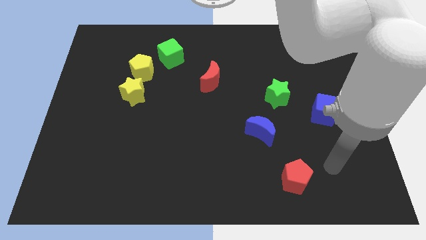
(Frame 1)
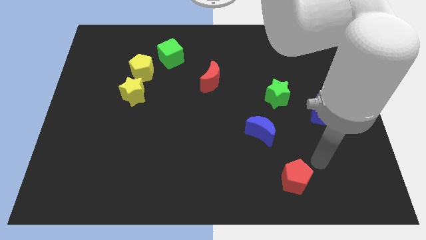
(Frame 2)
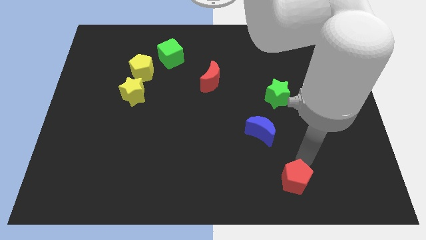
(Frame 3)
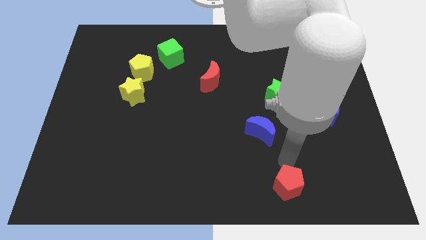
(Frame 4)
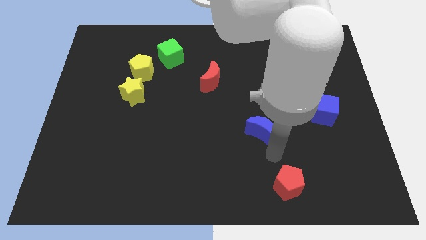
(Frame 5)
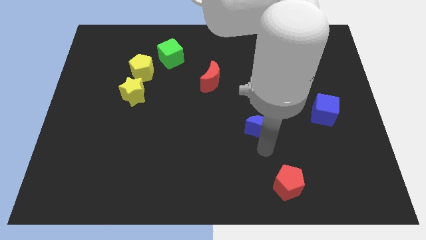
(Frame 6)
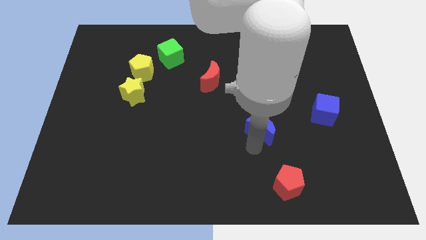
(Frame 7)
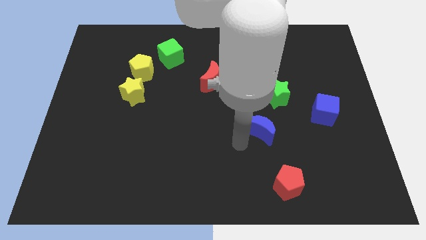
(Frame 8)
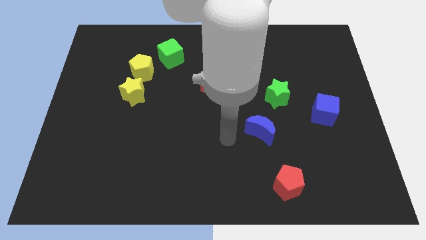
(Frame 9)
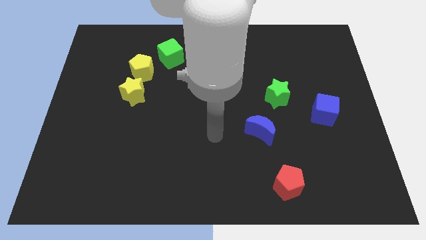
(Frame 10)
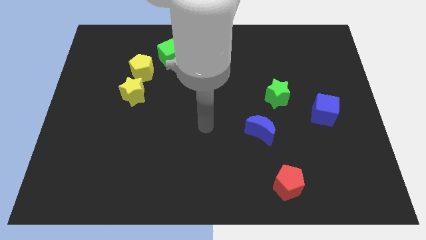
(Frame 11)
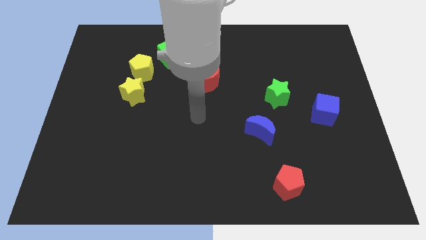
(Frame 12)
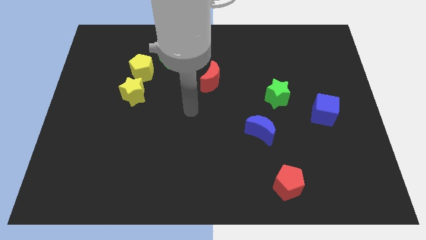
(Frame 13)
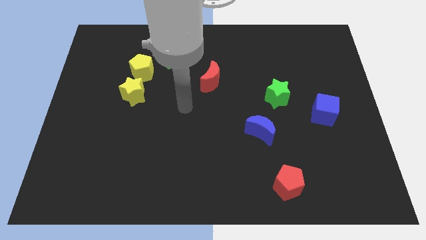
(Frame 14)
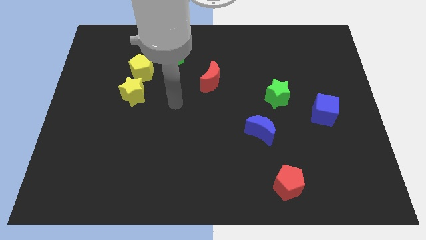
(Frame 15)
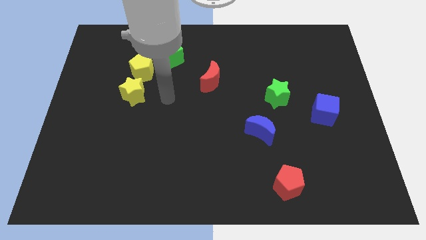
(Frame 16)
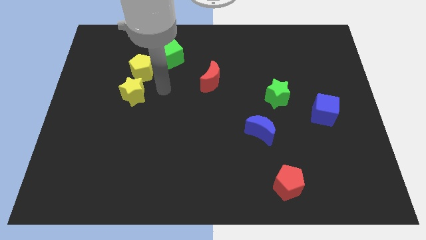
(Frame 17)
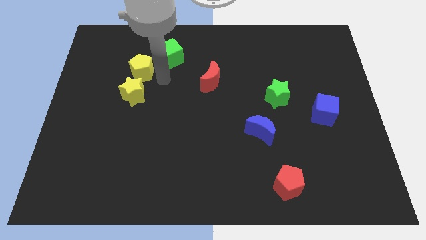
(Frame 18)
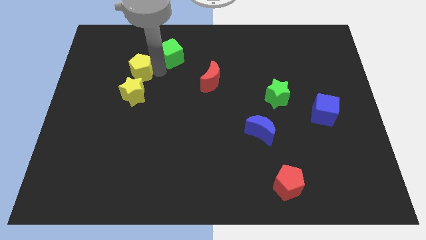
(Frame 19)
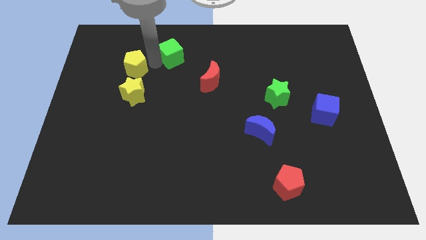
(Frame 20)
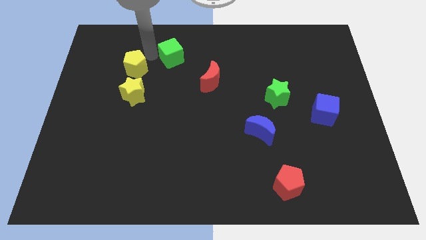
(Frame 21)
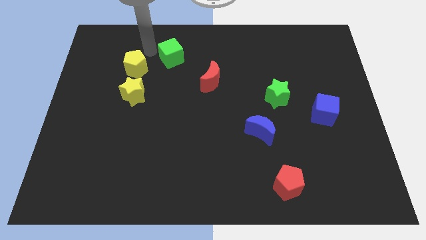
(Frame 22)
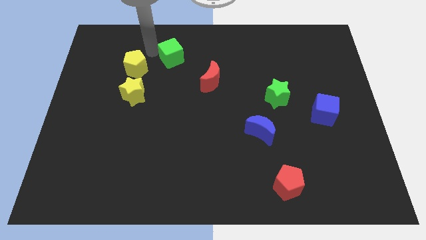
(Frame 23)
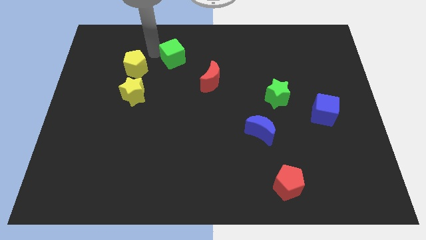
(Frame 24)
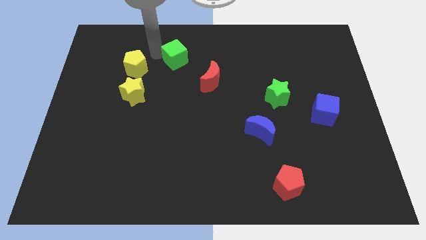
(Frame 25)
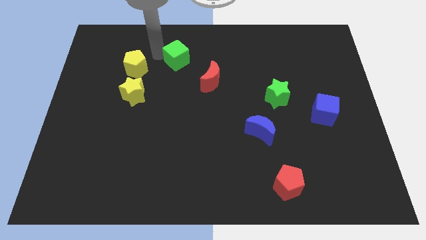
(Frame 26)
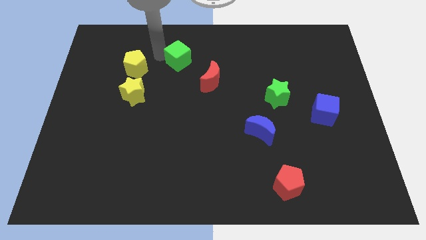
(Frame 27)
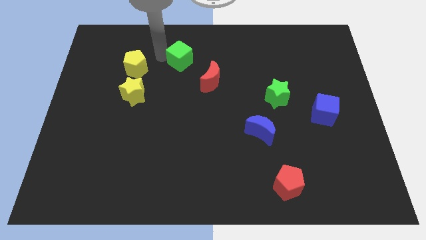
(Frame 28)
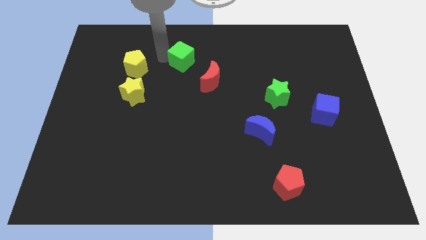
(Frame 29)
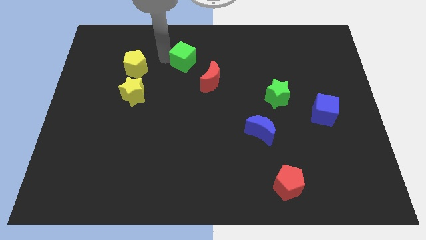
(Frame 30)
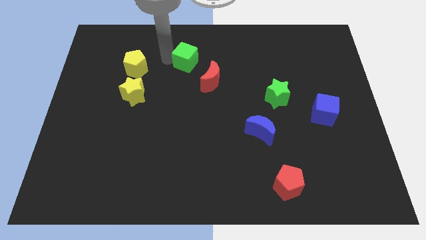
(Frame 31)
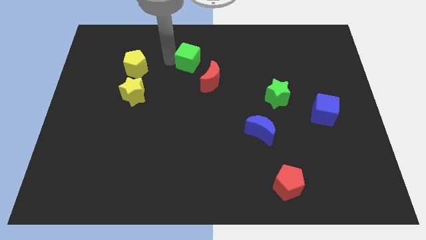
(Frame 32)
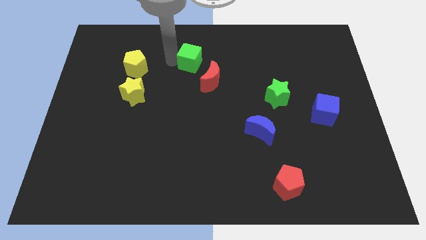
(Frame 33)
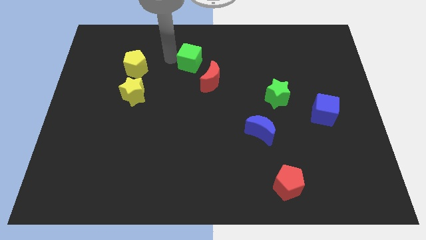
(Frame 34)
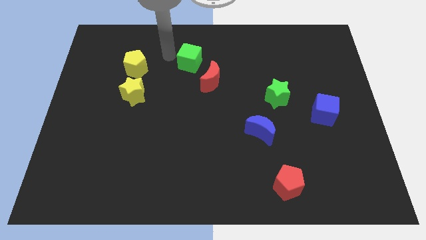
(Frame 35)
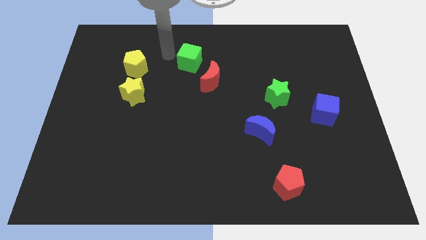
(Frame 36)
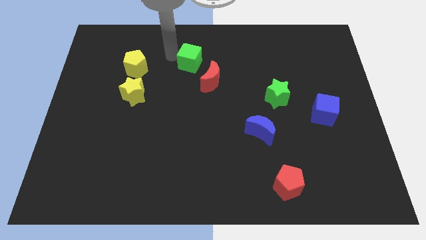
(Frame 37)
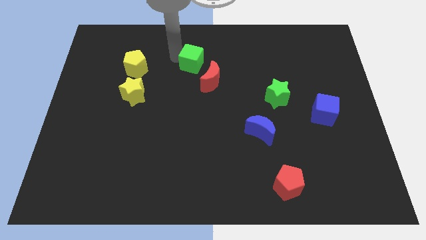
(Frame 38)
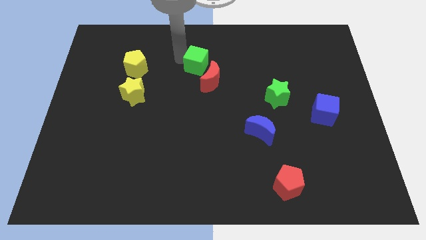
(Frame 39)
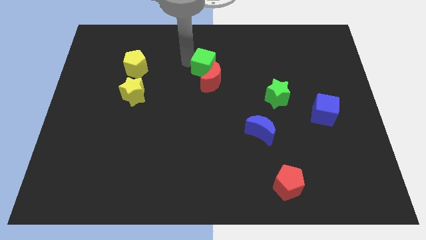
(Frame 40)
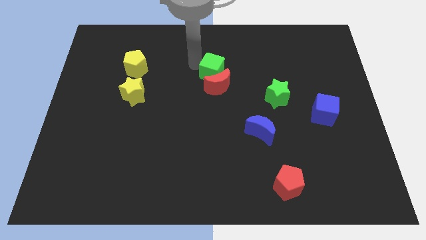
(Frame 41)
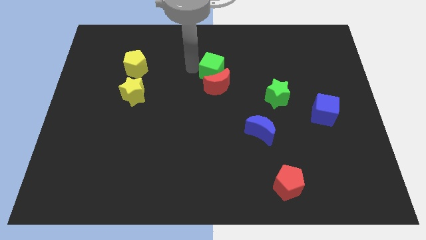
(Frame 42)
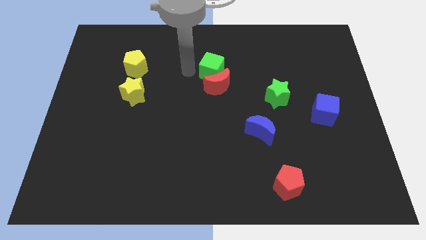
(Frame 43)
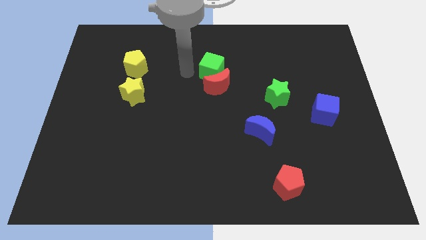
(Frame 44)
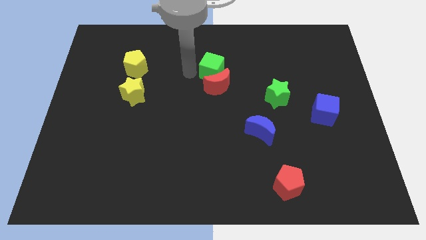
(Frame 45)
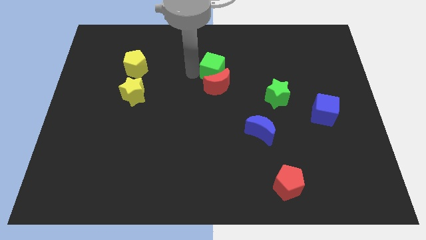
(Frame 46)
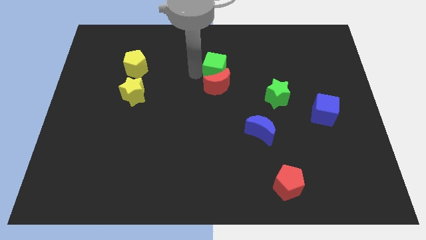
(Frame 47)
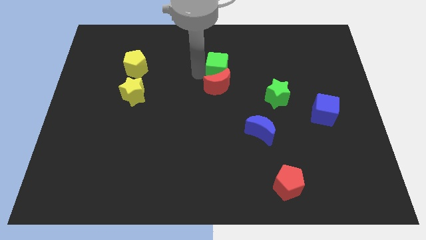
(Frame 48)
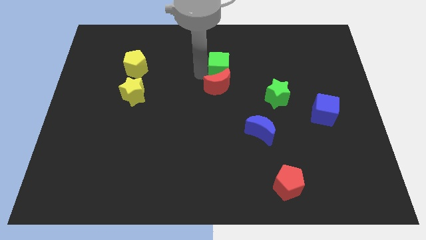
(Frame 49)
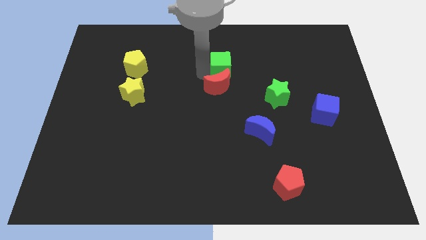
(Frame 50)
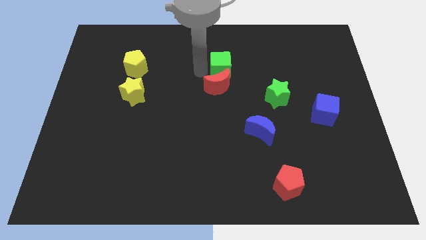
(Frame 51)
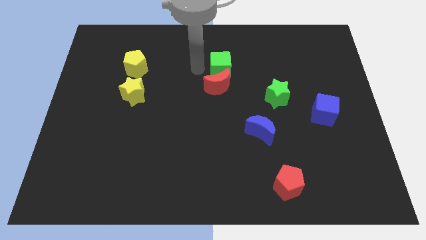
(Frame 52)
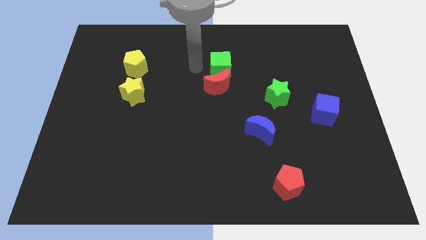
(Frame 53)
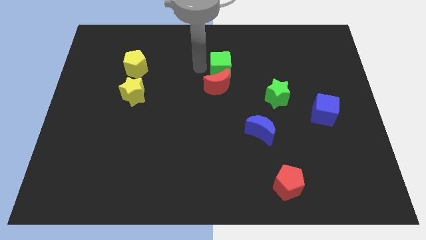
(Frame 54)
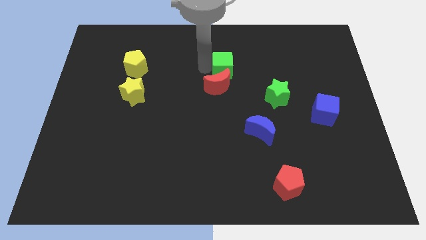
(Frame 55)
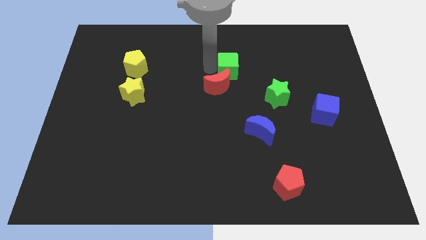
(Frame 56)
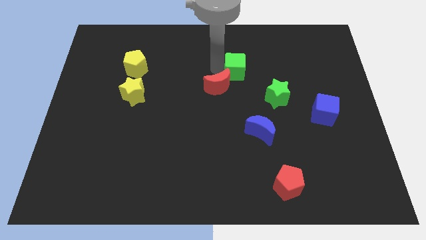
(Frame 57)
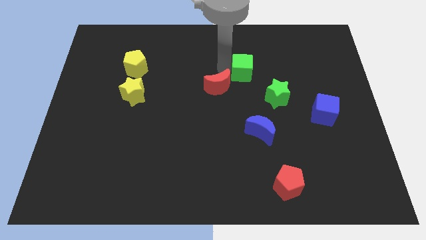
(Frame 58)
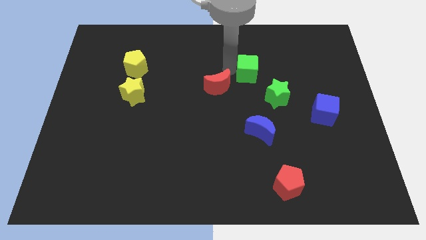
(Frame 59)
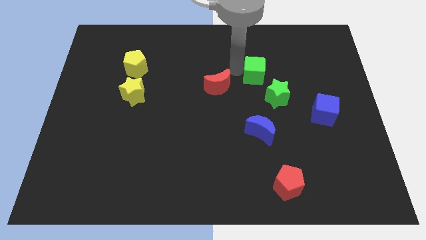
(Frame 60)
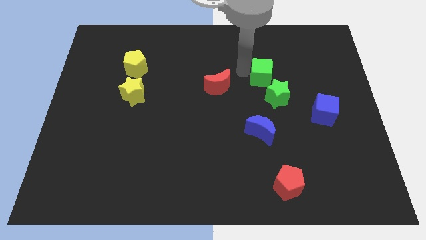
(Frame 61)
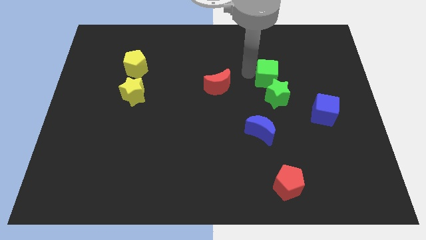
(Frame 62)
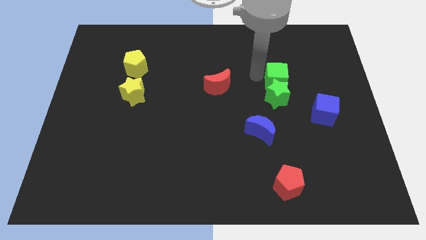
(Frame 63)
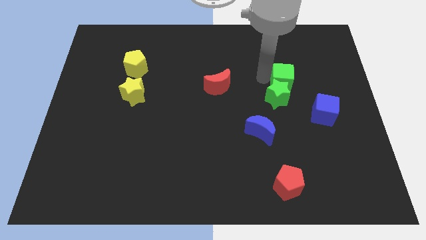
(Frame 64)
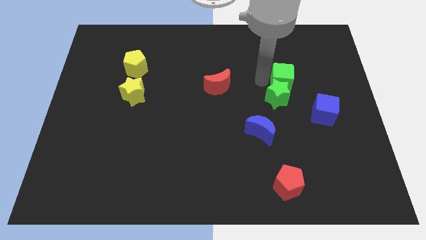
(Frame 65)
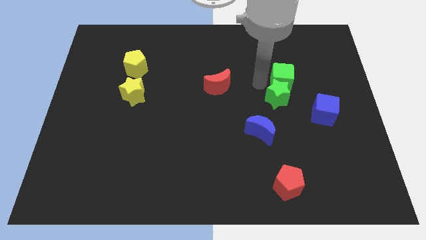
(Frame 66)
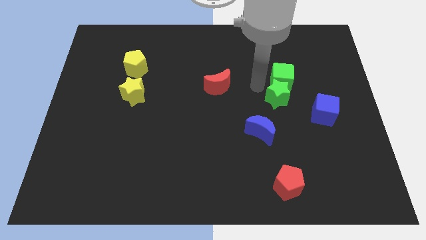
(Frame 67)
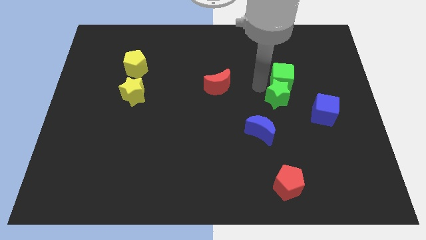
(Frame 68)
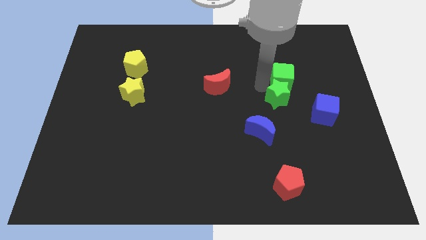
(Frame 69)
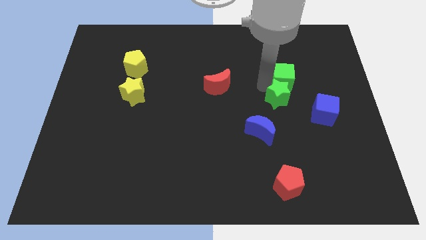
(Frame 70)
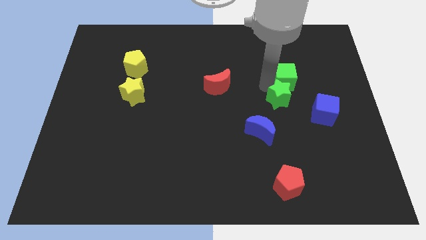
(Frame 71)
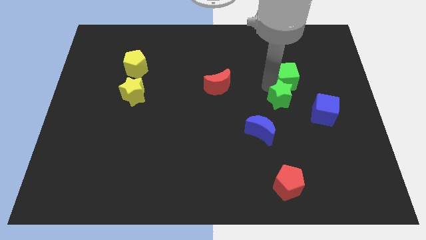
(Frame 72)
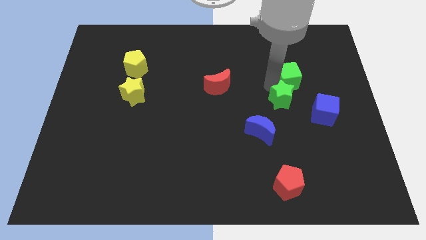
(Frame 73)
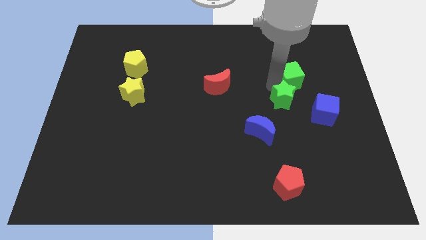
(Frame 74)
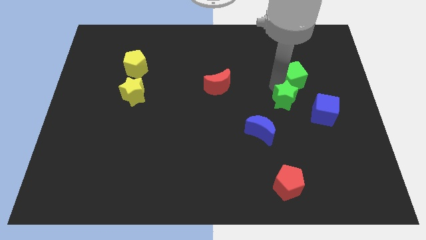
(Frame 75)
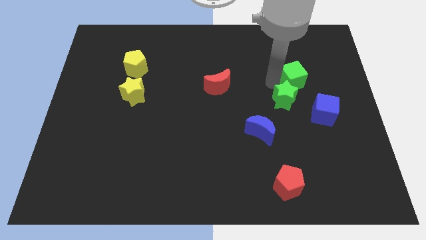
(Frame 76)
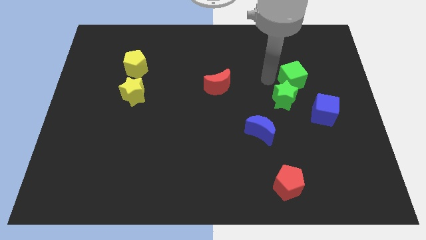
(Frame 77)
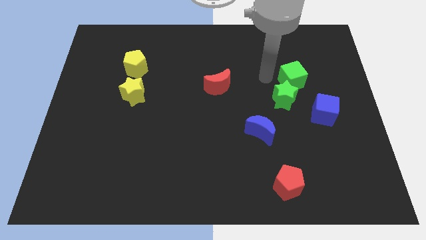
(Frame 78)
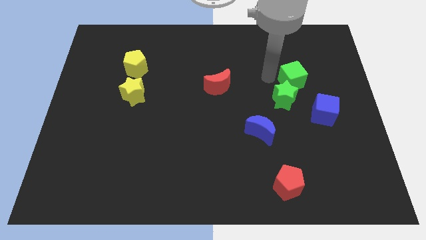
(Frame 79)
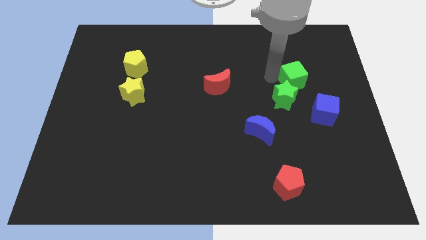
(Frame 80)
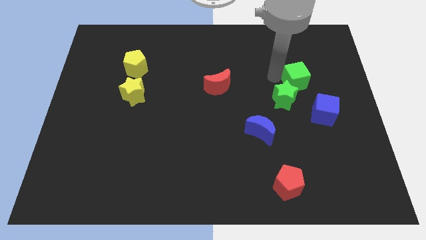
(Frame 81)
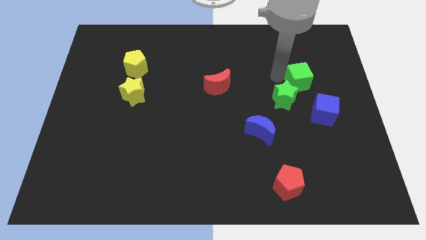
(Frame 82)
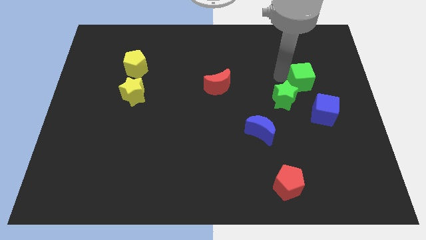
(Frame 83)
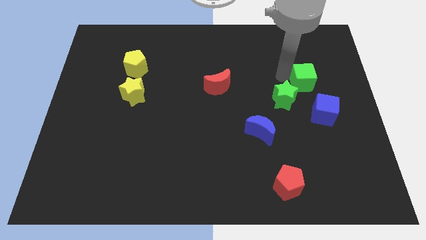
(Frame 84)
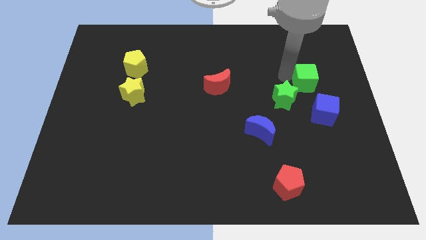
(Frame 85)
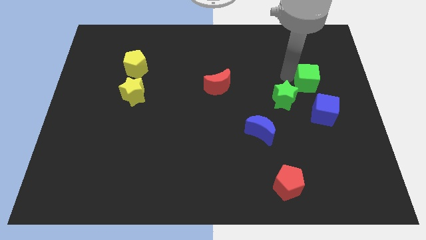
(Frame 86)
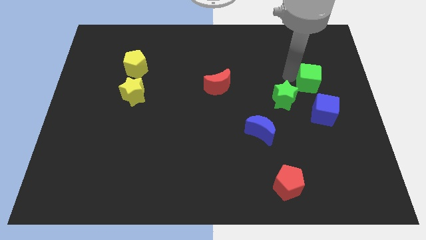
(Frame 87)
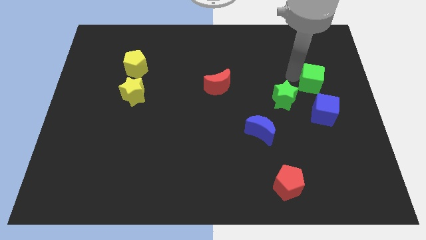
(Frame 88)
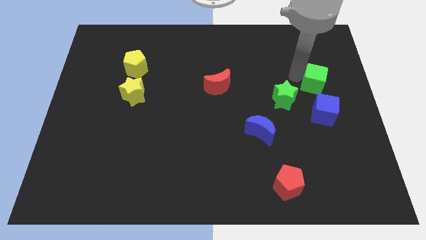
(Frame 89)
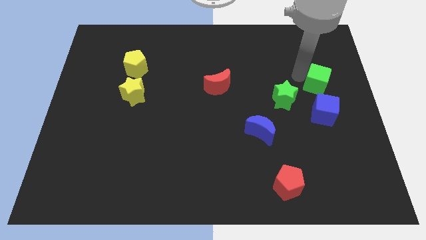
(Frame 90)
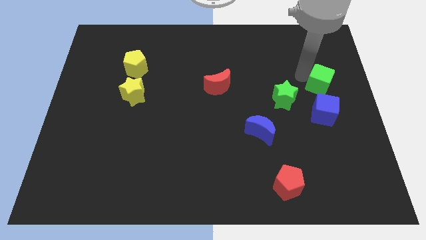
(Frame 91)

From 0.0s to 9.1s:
put the green cube to the right side
